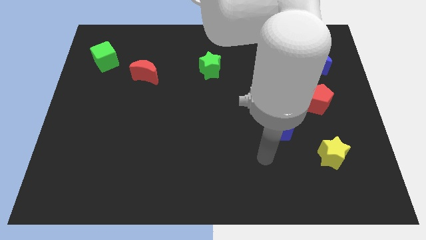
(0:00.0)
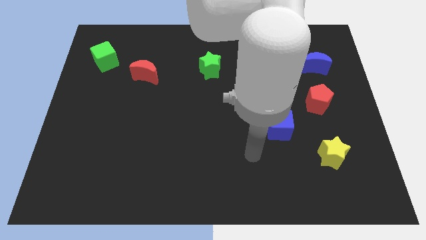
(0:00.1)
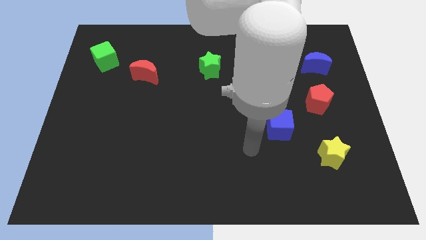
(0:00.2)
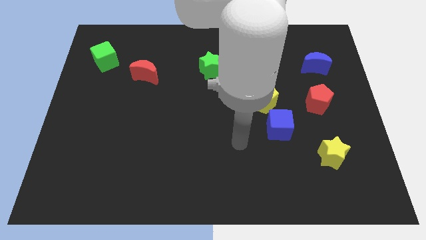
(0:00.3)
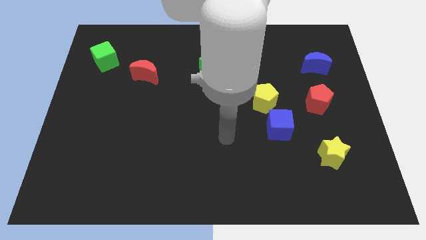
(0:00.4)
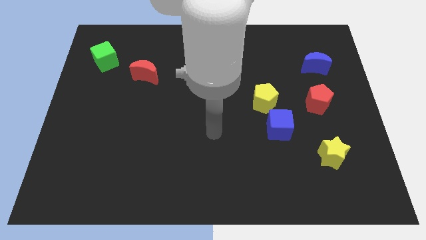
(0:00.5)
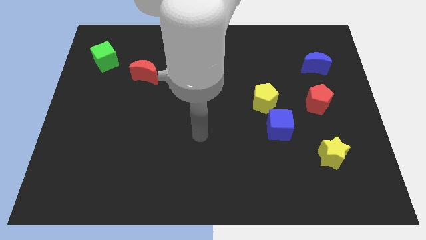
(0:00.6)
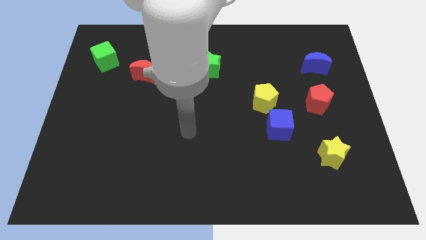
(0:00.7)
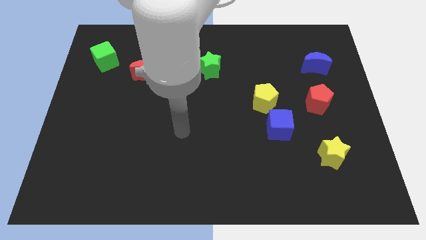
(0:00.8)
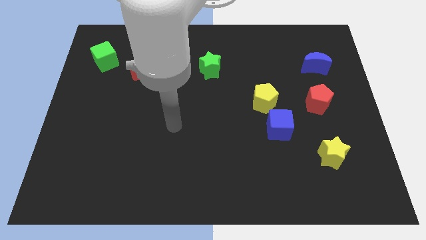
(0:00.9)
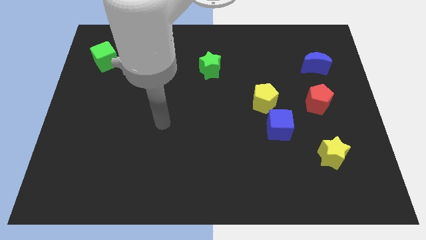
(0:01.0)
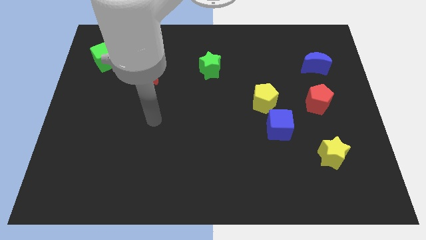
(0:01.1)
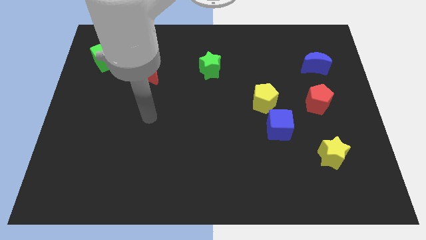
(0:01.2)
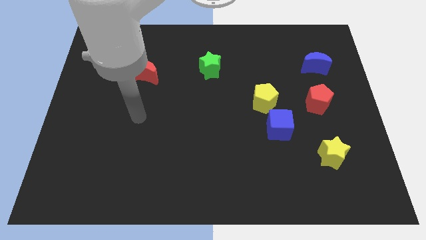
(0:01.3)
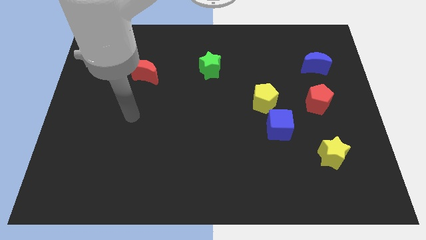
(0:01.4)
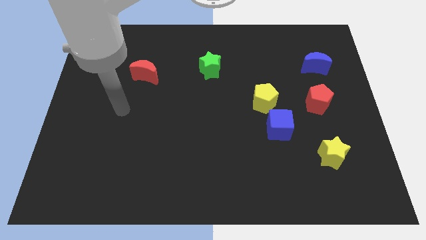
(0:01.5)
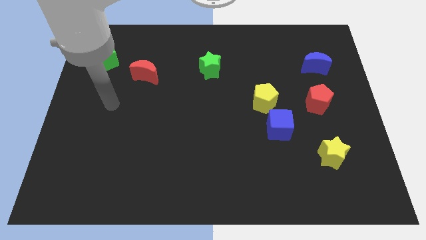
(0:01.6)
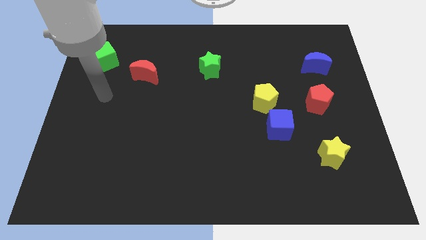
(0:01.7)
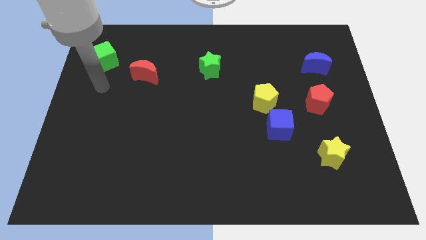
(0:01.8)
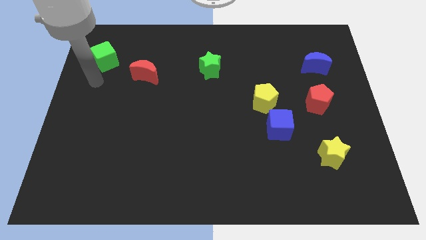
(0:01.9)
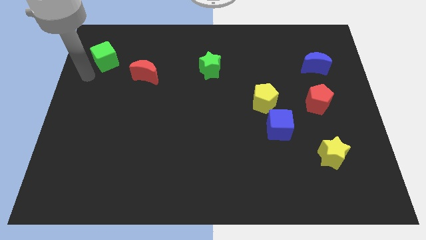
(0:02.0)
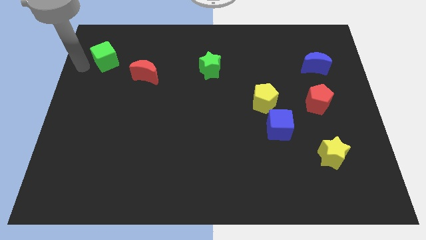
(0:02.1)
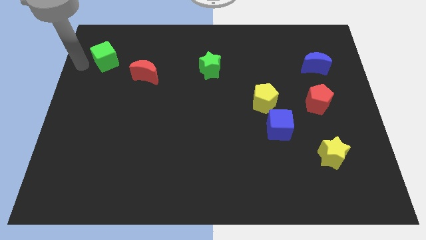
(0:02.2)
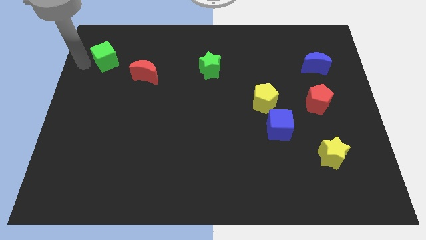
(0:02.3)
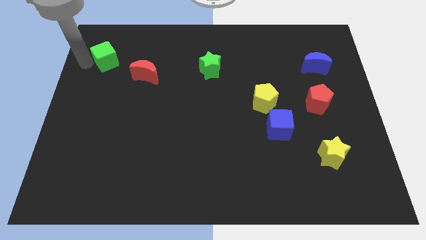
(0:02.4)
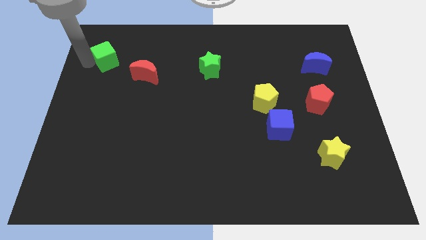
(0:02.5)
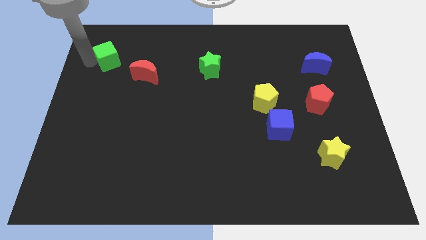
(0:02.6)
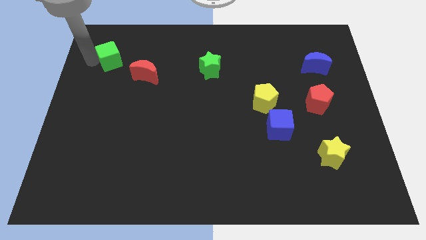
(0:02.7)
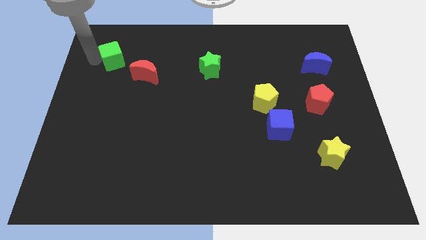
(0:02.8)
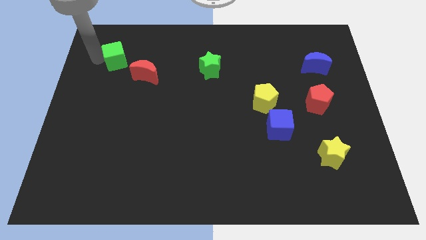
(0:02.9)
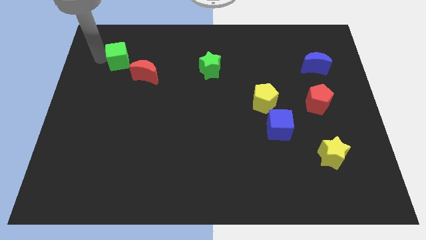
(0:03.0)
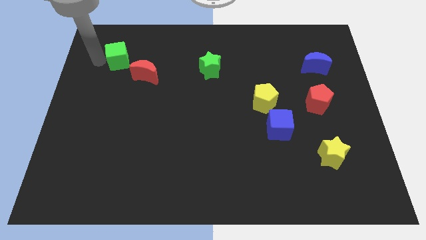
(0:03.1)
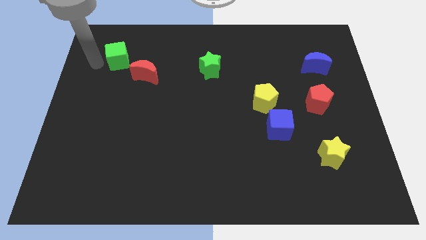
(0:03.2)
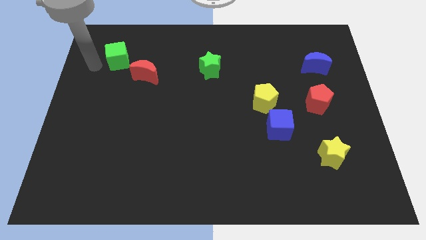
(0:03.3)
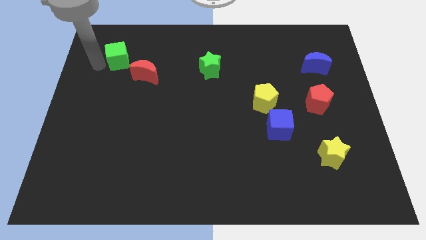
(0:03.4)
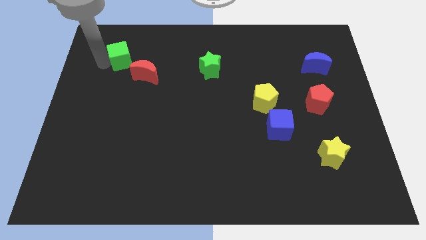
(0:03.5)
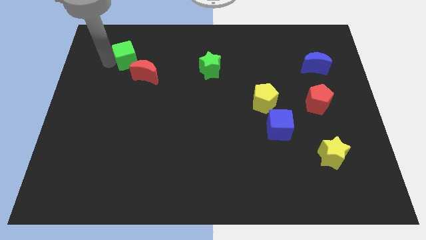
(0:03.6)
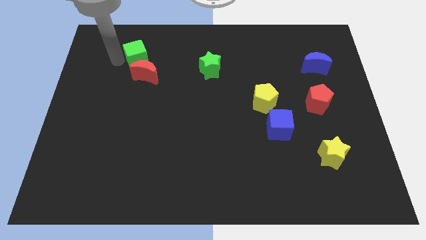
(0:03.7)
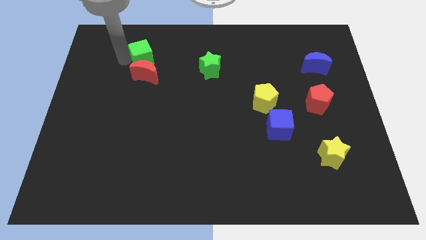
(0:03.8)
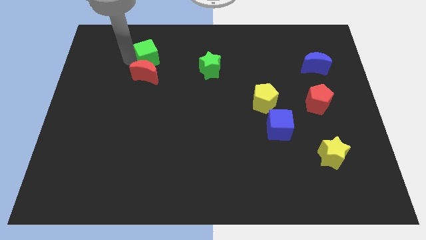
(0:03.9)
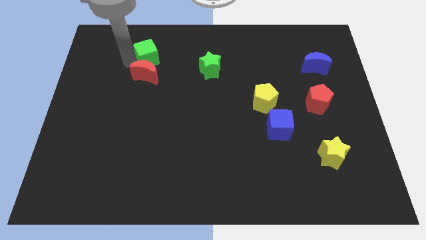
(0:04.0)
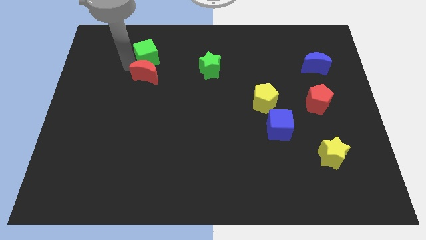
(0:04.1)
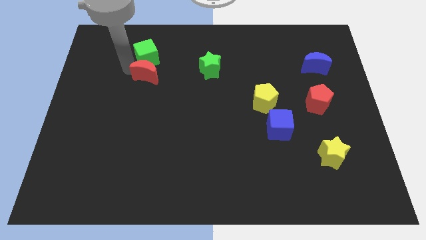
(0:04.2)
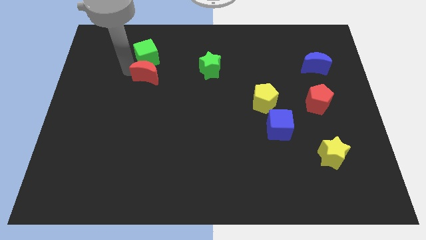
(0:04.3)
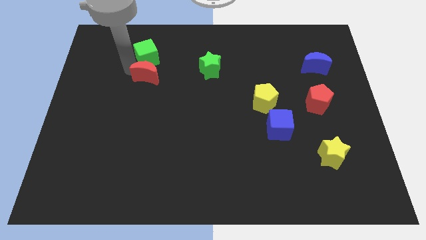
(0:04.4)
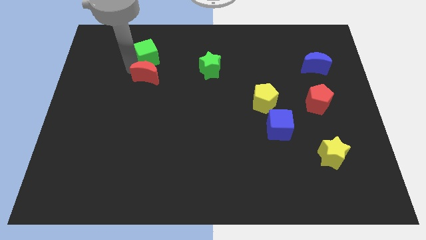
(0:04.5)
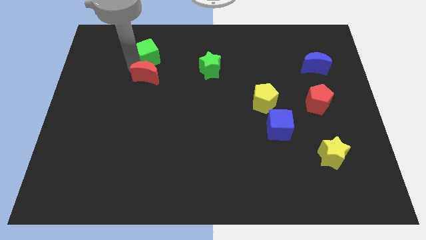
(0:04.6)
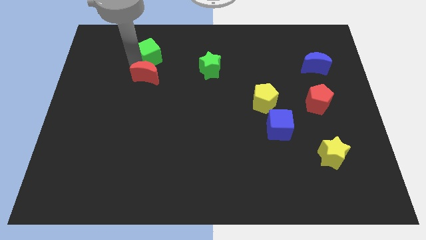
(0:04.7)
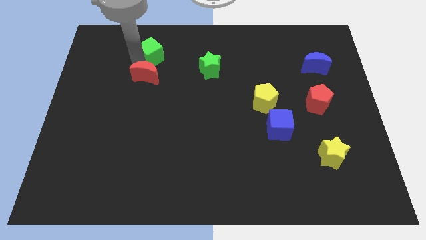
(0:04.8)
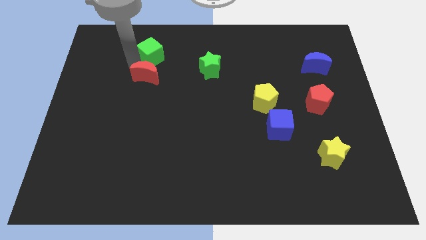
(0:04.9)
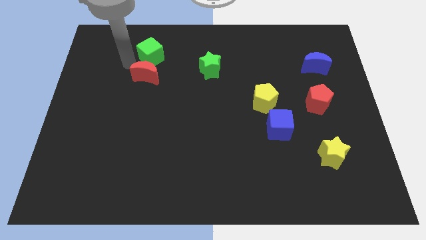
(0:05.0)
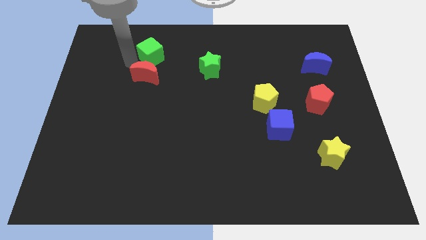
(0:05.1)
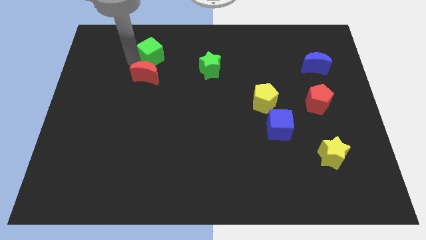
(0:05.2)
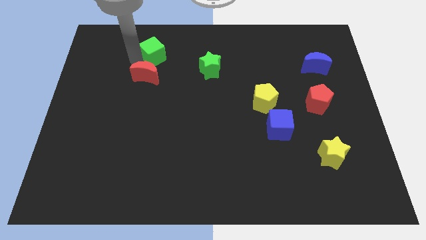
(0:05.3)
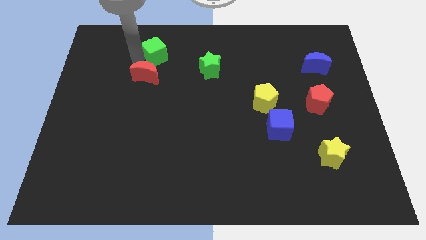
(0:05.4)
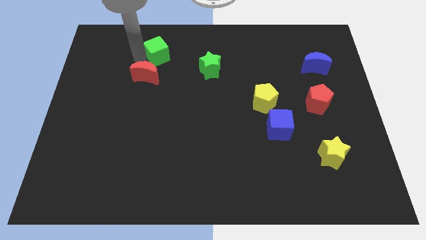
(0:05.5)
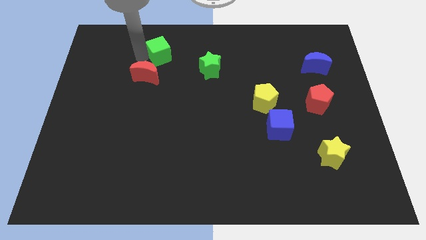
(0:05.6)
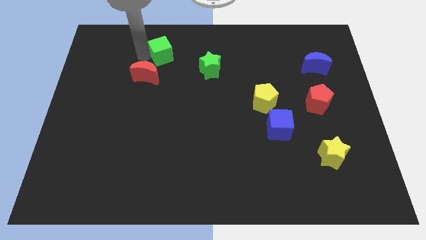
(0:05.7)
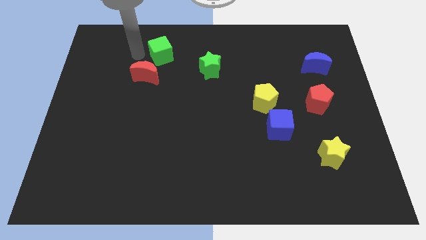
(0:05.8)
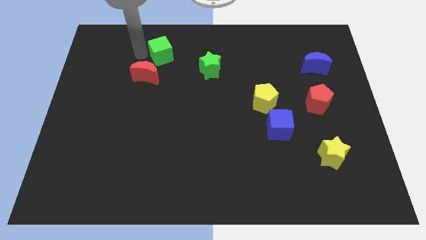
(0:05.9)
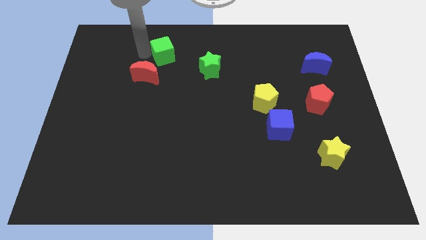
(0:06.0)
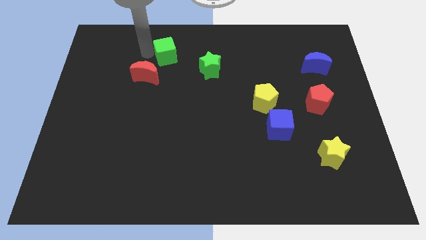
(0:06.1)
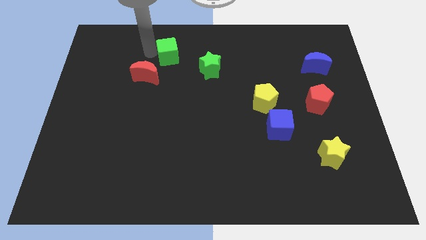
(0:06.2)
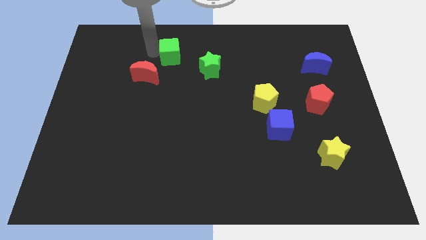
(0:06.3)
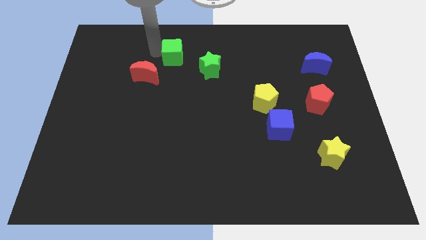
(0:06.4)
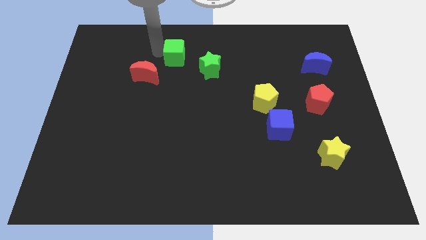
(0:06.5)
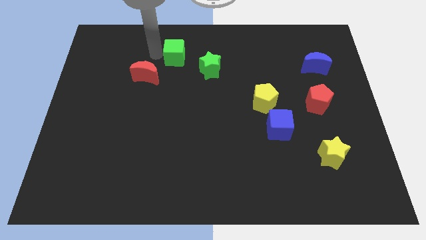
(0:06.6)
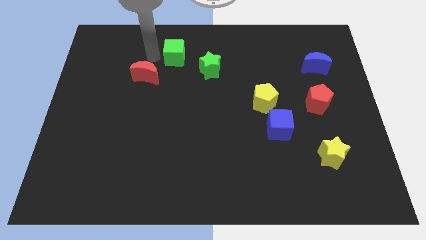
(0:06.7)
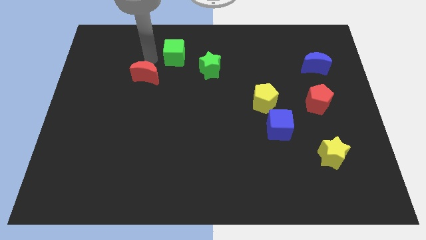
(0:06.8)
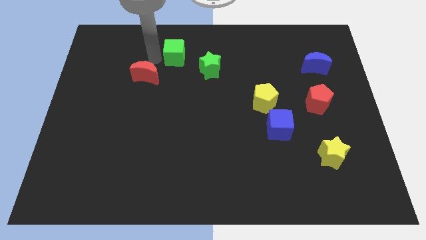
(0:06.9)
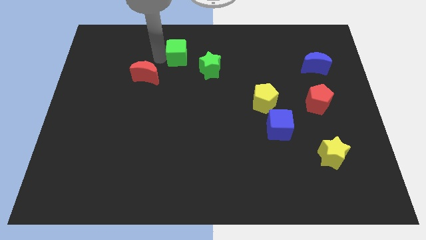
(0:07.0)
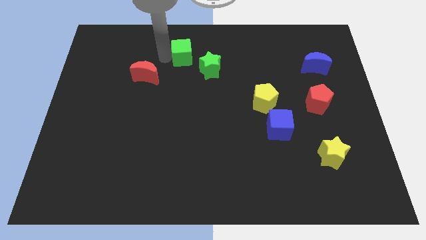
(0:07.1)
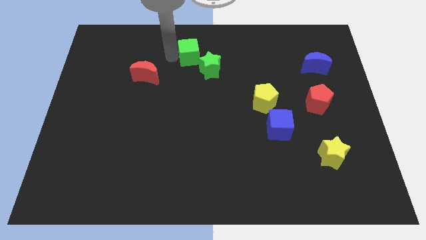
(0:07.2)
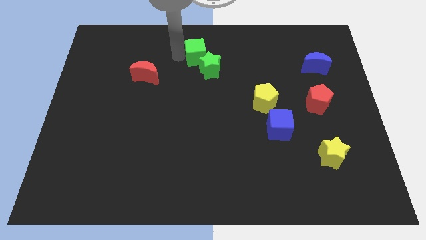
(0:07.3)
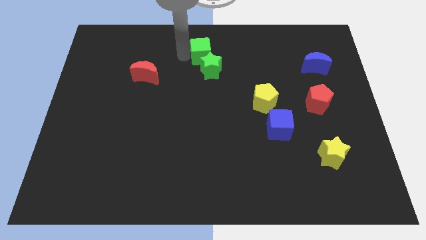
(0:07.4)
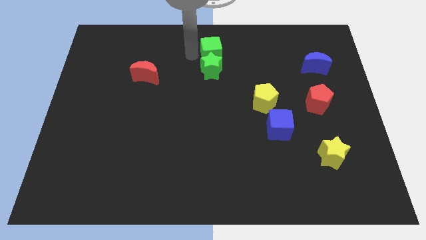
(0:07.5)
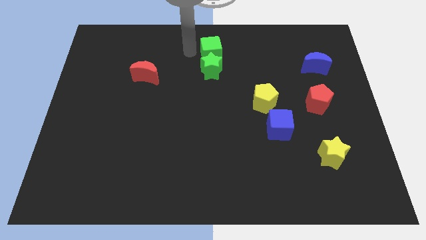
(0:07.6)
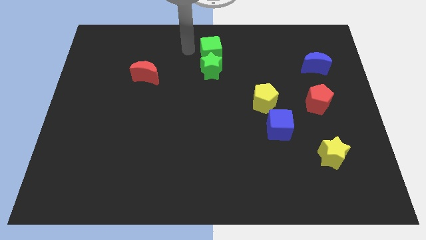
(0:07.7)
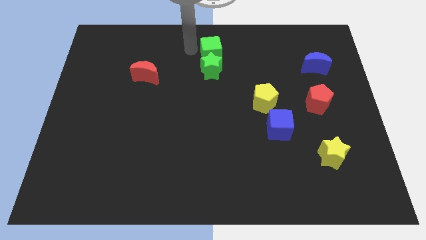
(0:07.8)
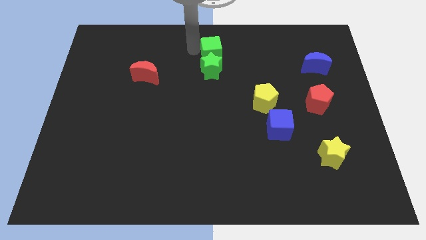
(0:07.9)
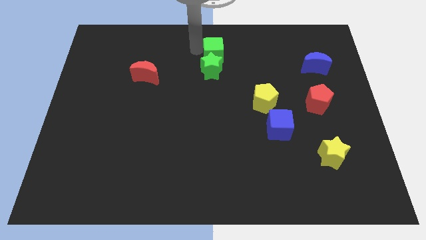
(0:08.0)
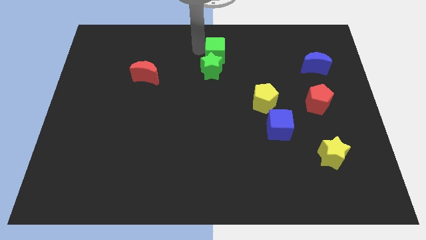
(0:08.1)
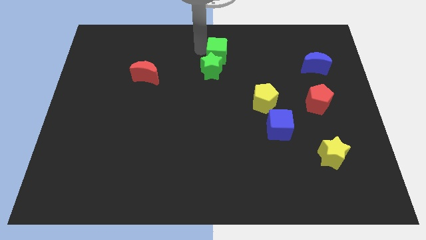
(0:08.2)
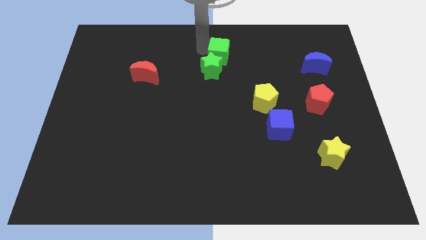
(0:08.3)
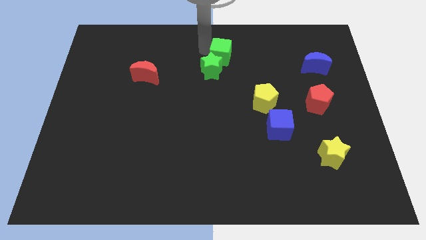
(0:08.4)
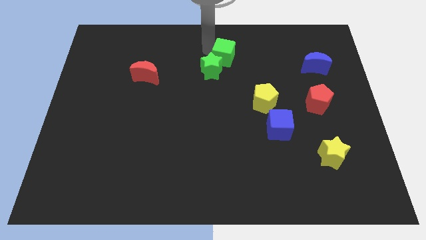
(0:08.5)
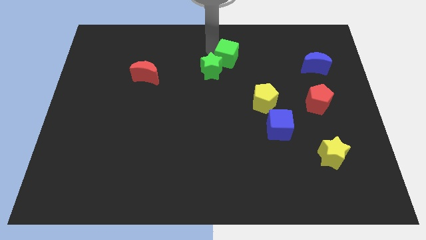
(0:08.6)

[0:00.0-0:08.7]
move the green cube to the right of the green star
